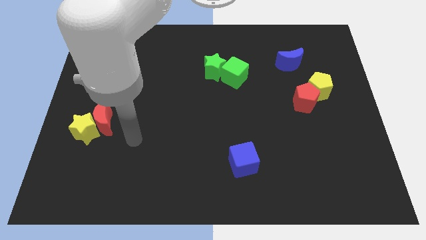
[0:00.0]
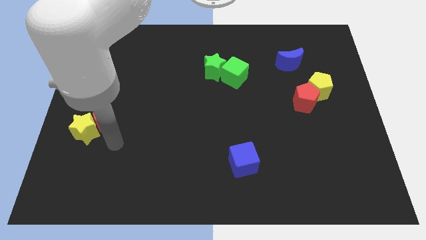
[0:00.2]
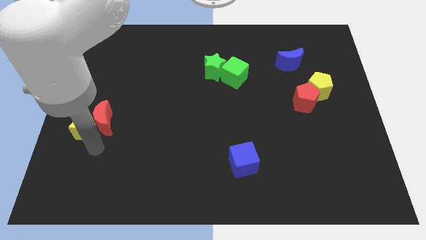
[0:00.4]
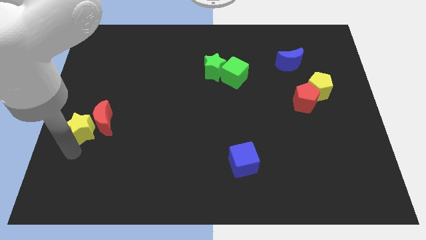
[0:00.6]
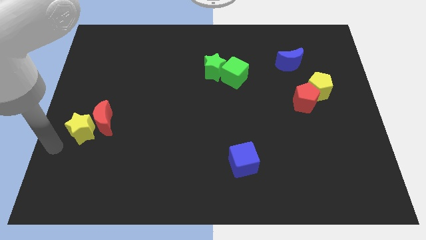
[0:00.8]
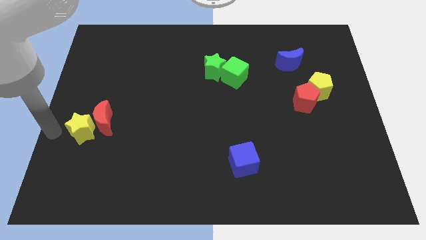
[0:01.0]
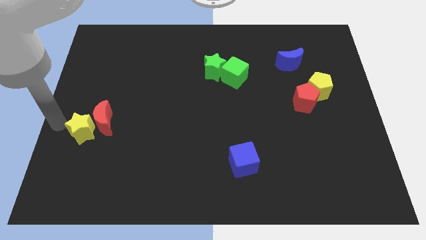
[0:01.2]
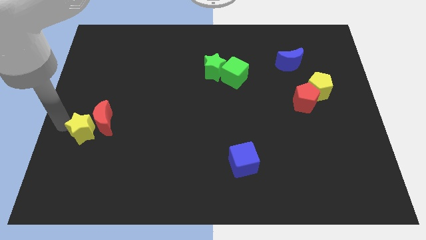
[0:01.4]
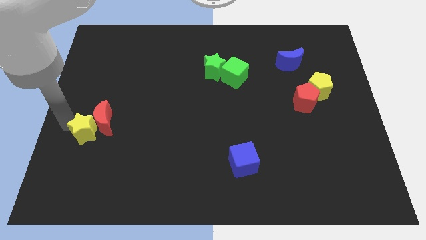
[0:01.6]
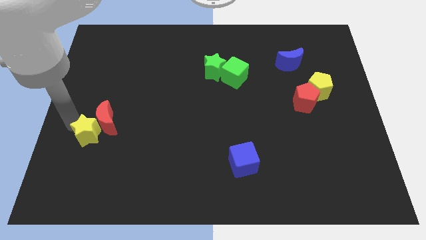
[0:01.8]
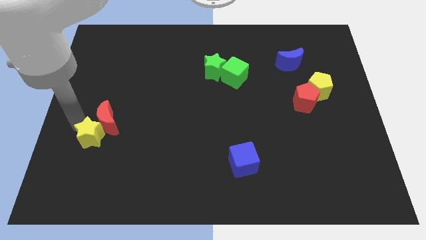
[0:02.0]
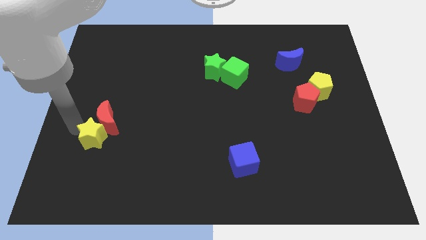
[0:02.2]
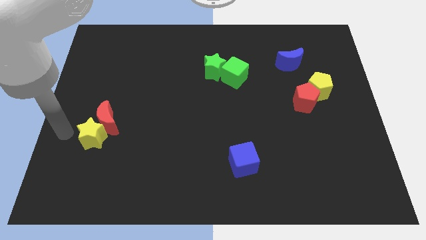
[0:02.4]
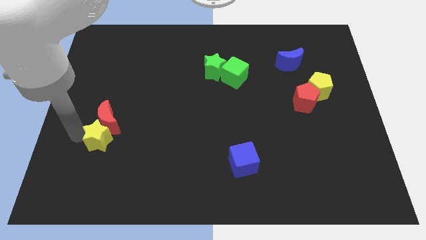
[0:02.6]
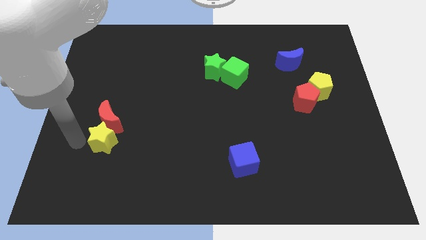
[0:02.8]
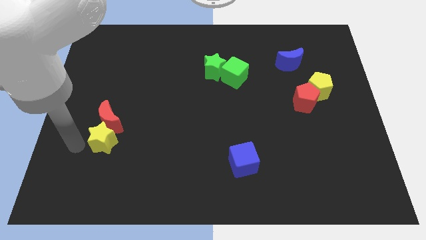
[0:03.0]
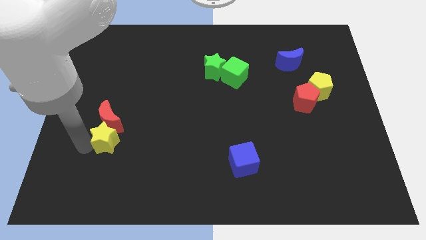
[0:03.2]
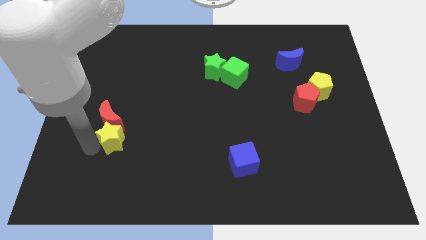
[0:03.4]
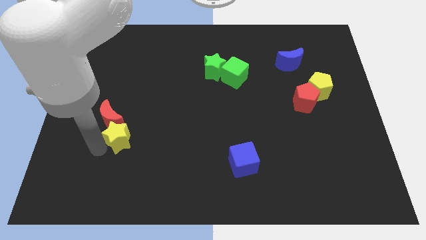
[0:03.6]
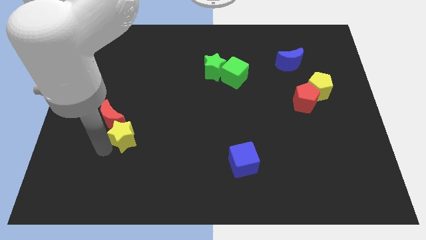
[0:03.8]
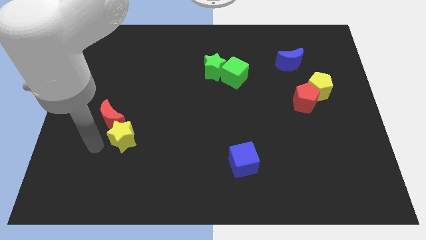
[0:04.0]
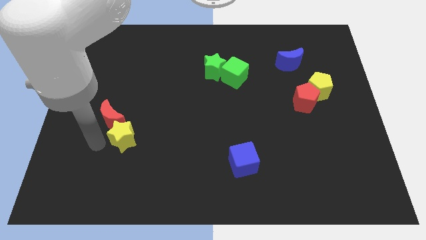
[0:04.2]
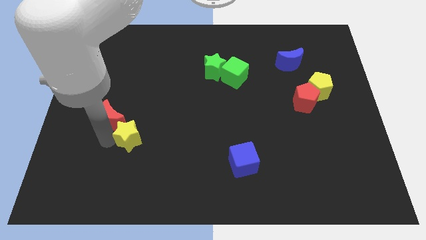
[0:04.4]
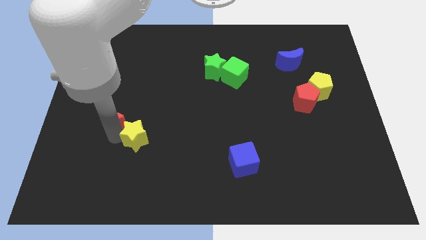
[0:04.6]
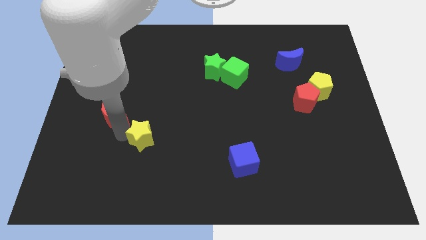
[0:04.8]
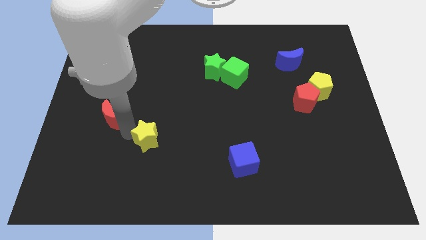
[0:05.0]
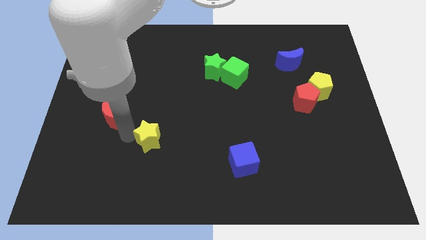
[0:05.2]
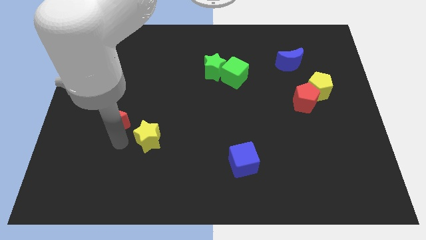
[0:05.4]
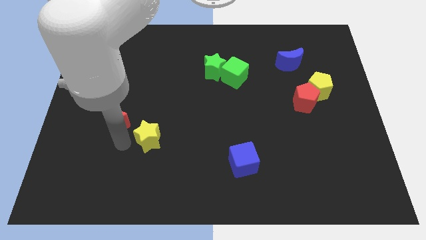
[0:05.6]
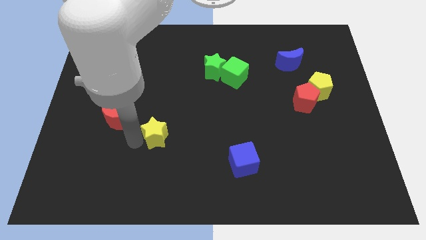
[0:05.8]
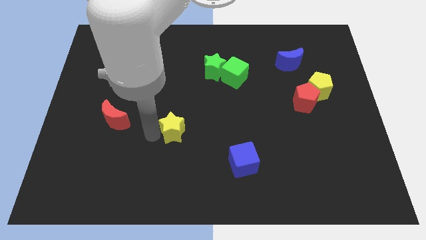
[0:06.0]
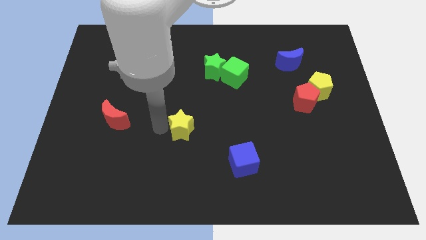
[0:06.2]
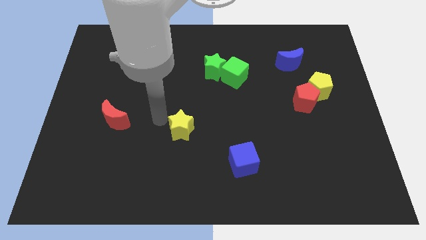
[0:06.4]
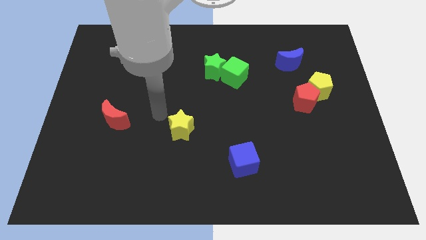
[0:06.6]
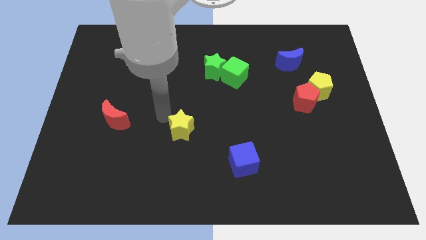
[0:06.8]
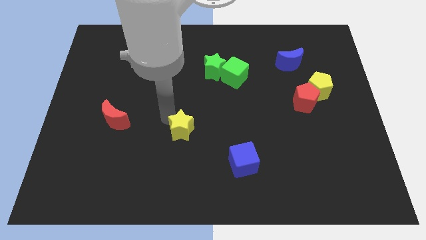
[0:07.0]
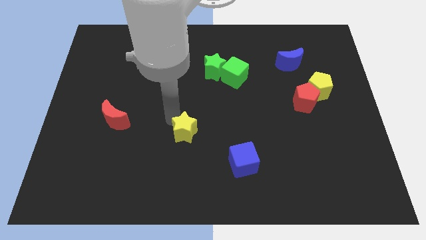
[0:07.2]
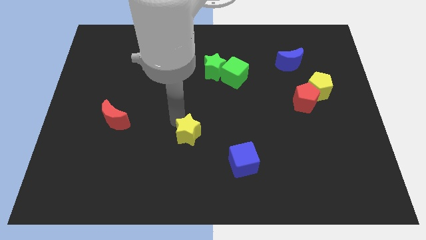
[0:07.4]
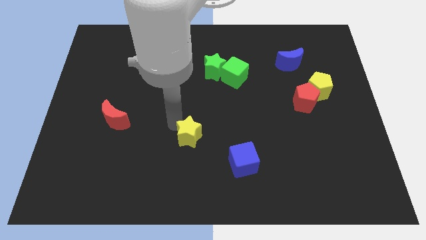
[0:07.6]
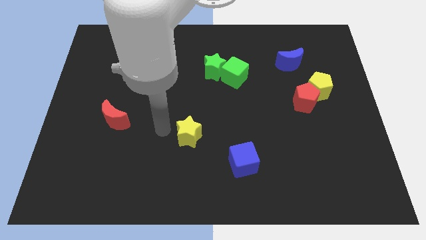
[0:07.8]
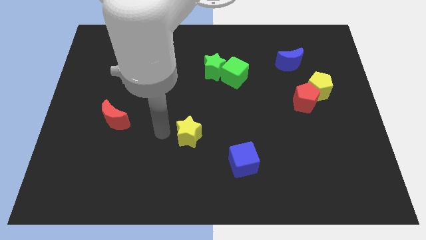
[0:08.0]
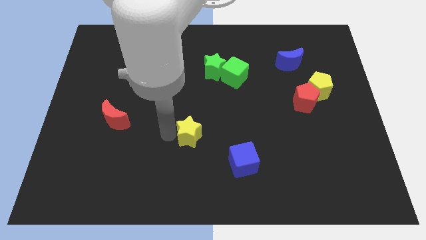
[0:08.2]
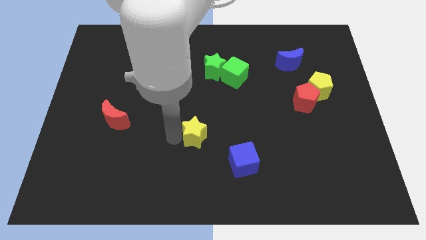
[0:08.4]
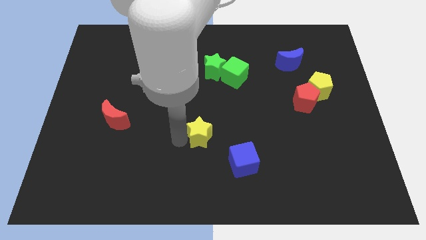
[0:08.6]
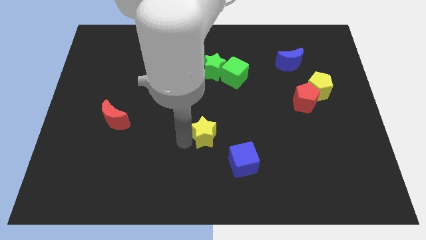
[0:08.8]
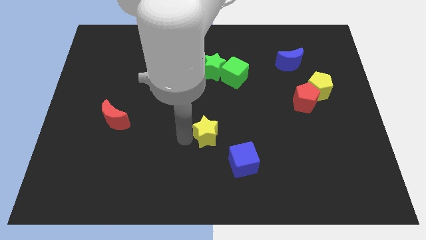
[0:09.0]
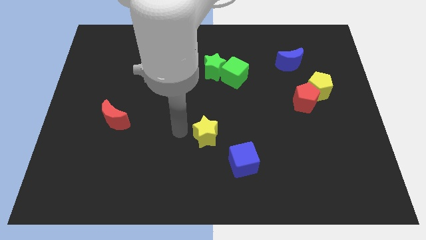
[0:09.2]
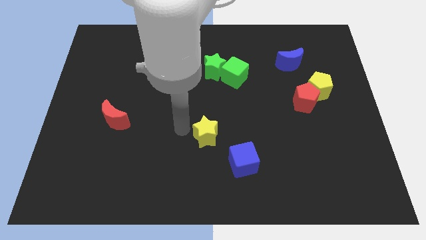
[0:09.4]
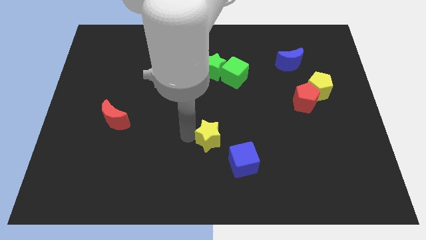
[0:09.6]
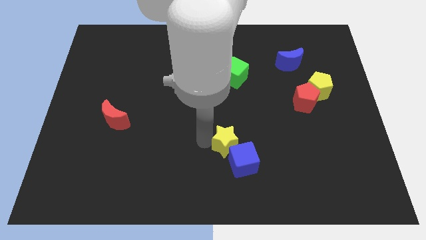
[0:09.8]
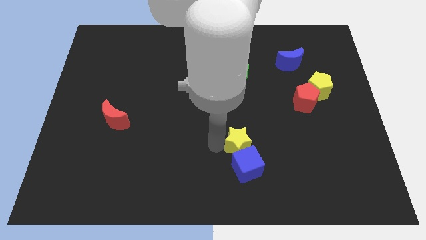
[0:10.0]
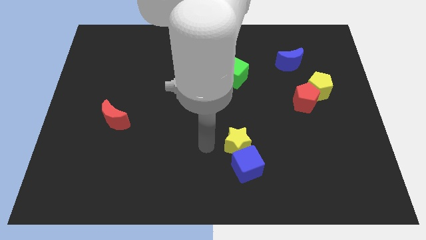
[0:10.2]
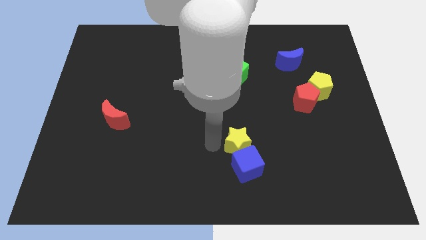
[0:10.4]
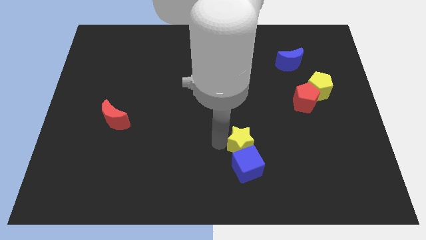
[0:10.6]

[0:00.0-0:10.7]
put the yellow star to the top right of the blue cube

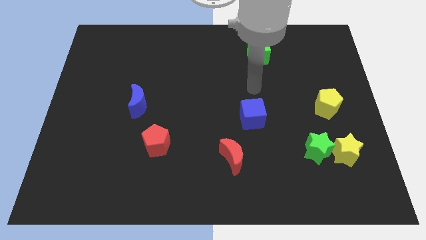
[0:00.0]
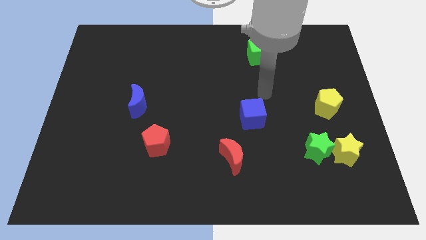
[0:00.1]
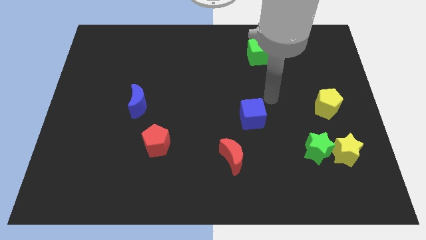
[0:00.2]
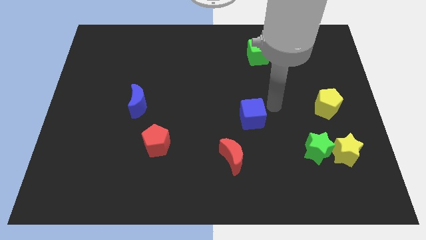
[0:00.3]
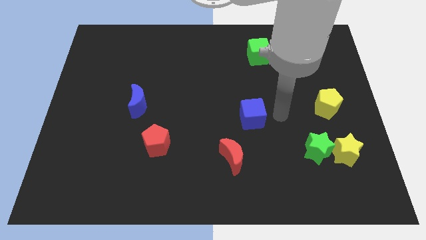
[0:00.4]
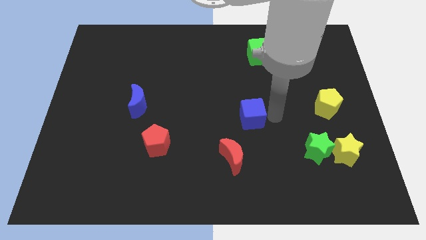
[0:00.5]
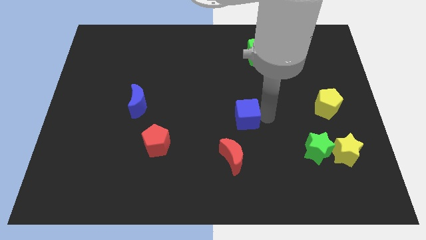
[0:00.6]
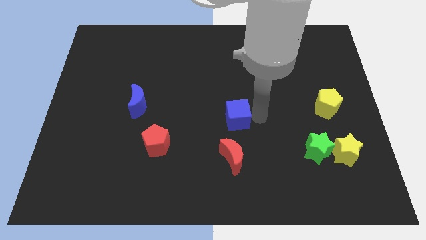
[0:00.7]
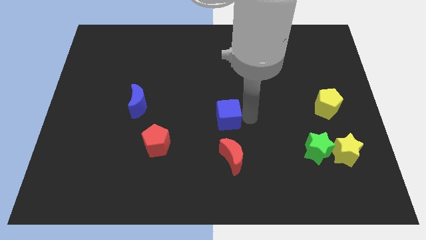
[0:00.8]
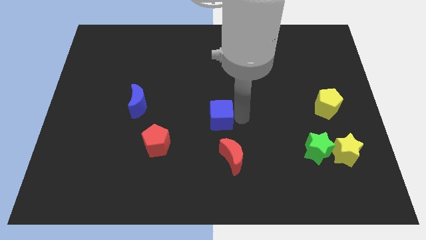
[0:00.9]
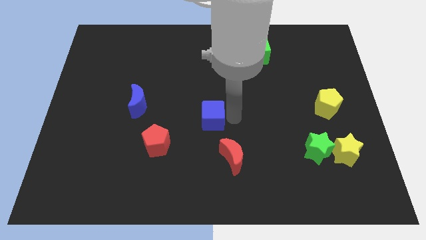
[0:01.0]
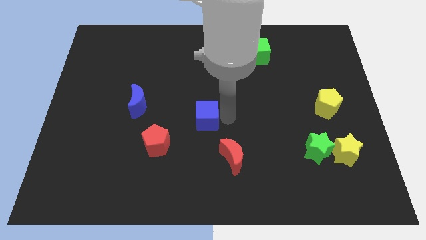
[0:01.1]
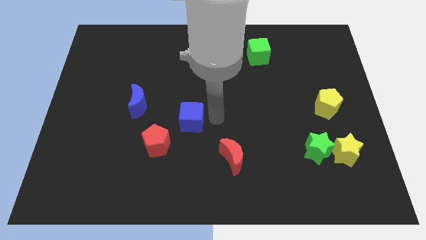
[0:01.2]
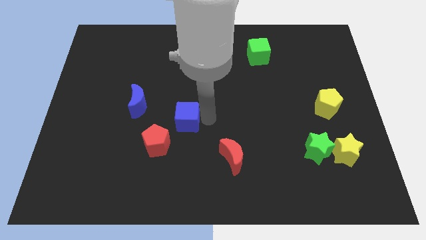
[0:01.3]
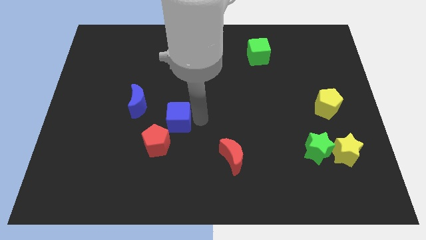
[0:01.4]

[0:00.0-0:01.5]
move the blue cube to the bottom right side of the blue moon

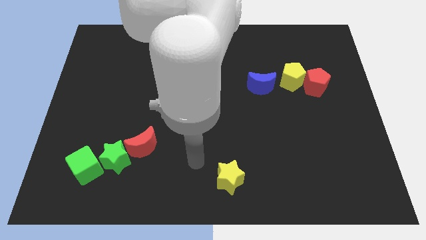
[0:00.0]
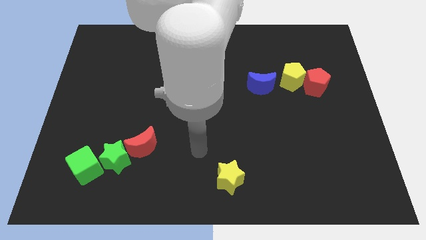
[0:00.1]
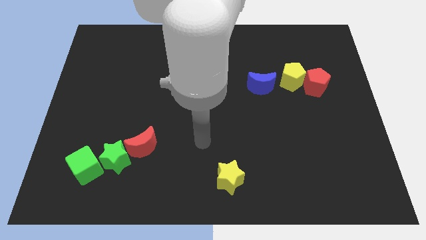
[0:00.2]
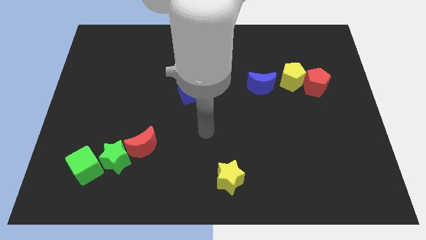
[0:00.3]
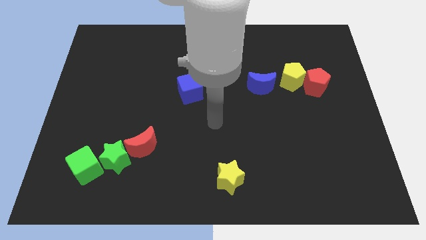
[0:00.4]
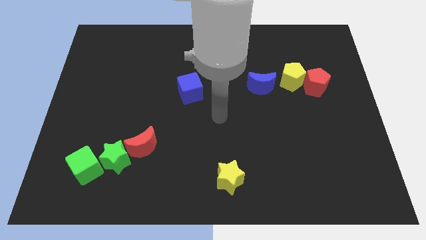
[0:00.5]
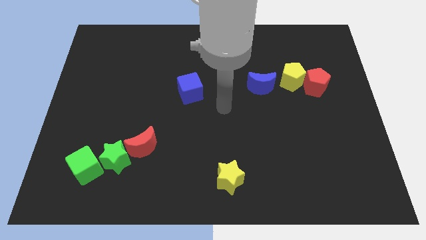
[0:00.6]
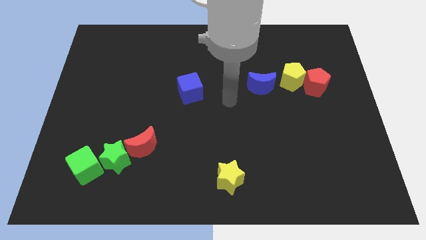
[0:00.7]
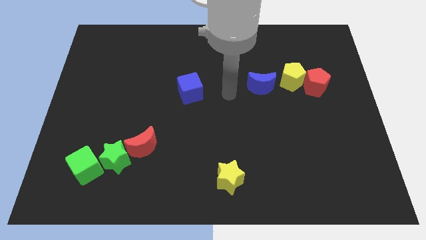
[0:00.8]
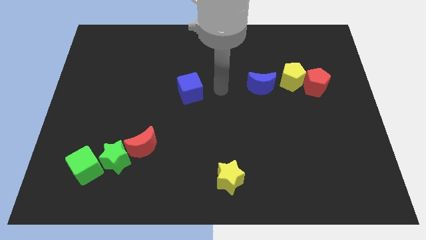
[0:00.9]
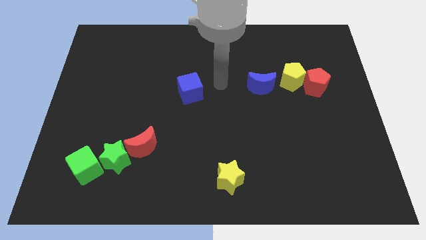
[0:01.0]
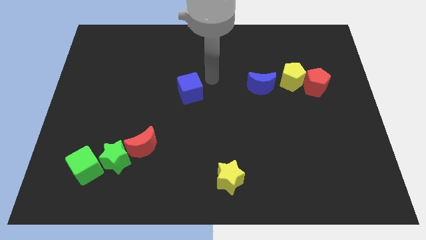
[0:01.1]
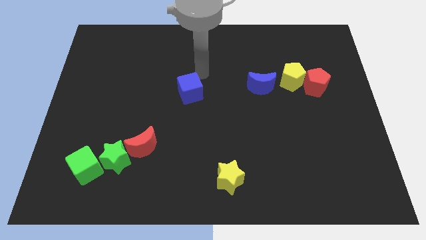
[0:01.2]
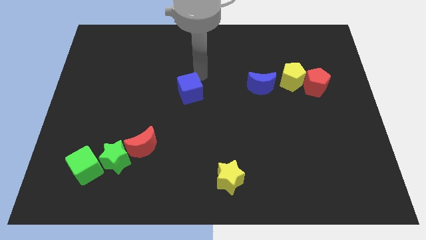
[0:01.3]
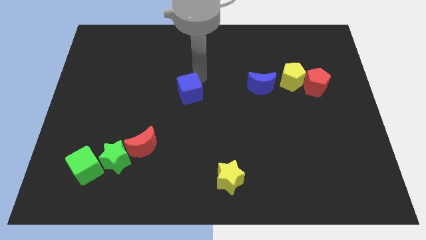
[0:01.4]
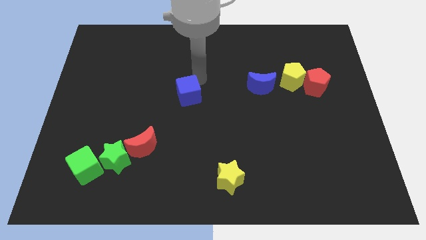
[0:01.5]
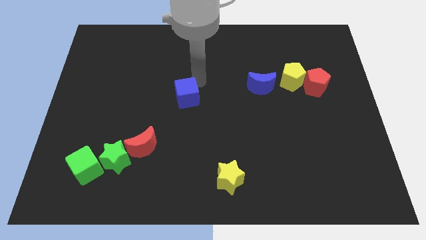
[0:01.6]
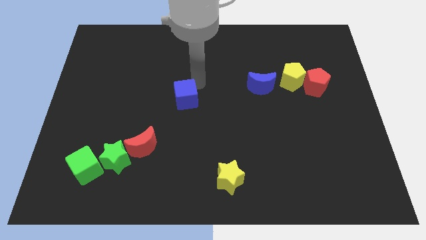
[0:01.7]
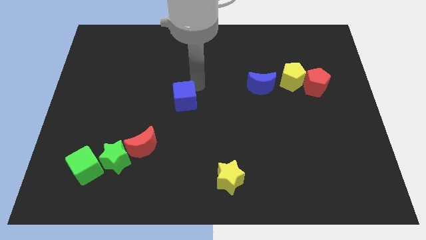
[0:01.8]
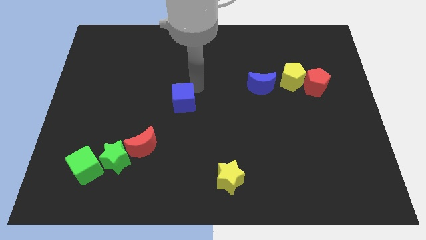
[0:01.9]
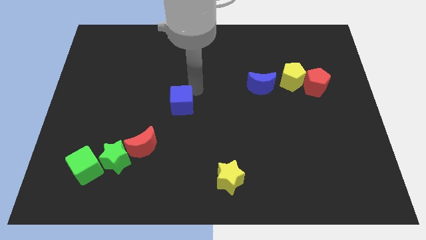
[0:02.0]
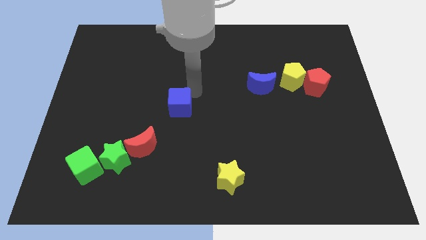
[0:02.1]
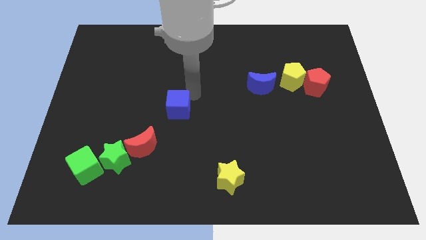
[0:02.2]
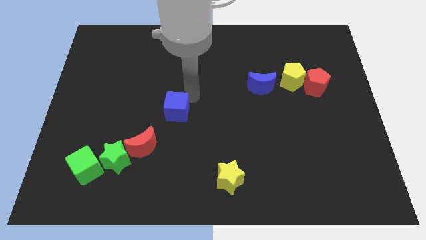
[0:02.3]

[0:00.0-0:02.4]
move the blue cube to the top right of the red moon
